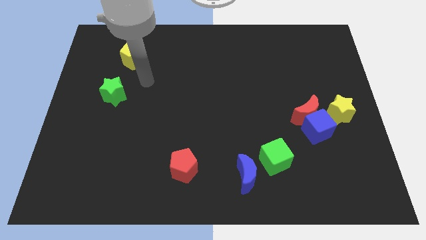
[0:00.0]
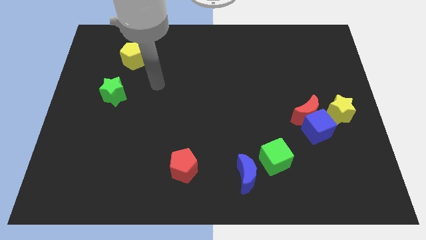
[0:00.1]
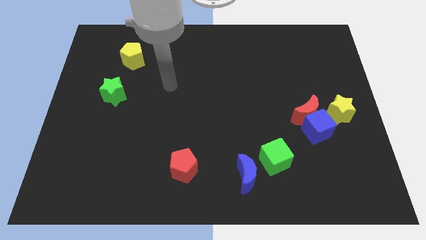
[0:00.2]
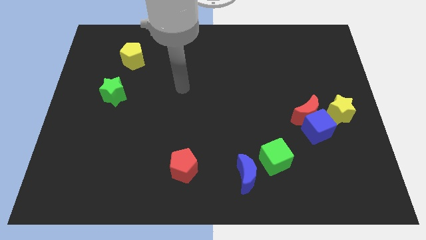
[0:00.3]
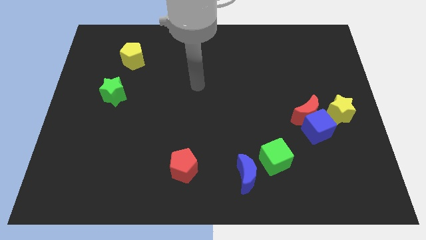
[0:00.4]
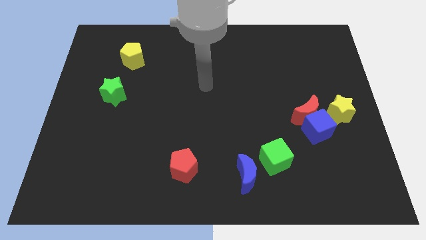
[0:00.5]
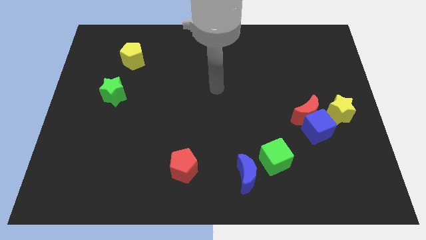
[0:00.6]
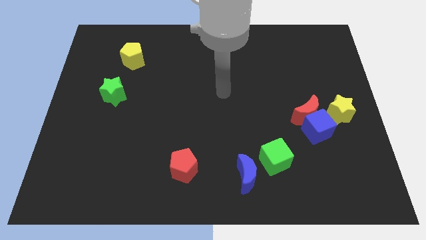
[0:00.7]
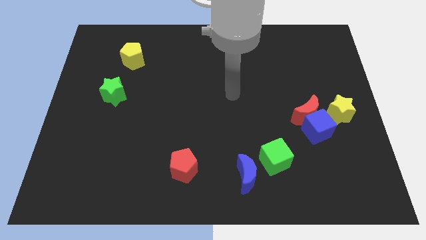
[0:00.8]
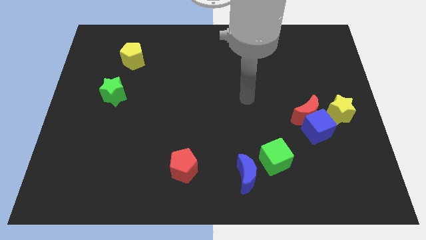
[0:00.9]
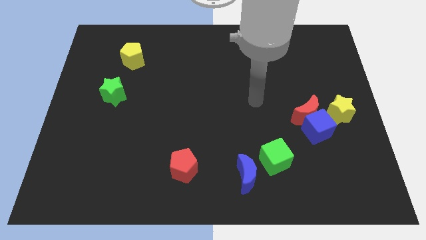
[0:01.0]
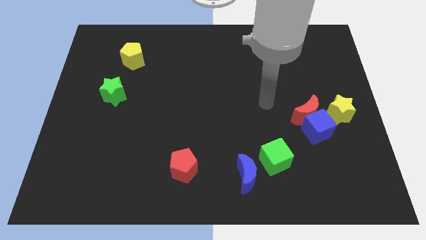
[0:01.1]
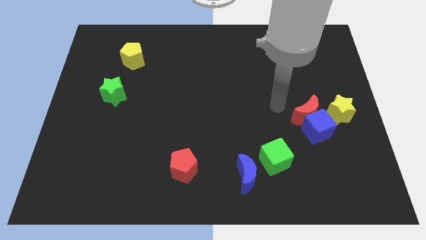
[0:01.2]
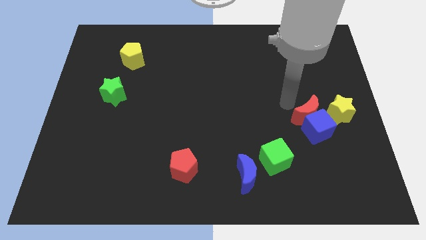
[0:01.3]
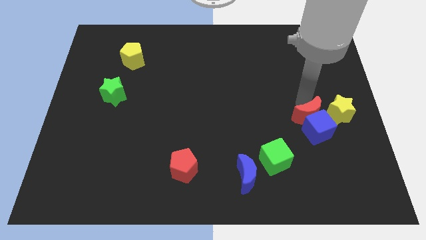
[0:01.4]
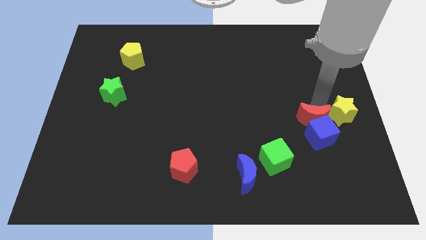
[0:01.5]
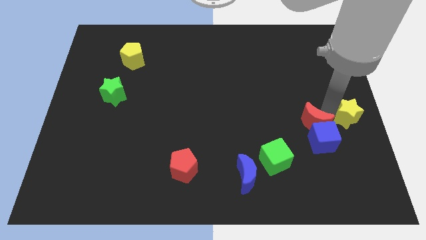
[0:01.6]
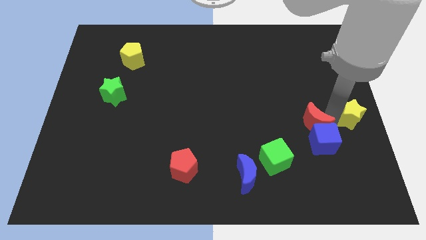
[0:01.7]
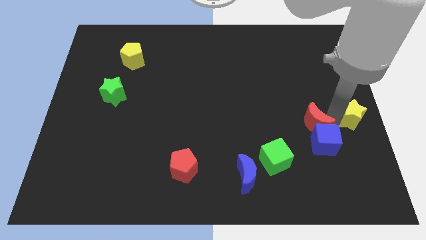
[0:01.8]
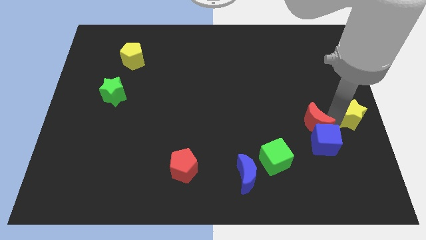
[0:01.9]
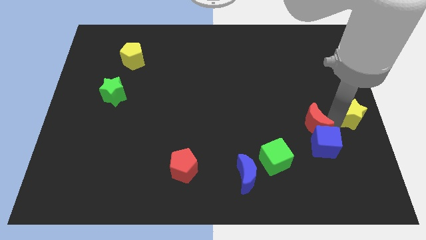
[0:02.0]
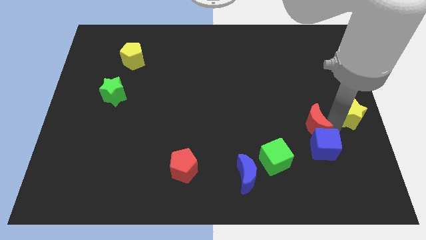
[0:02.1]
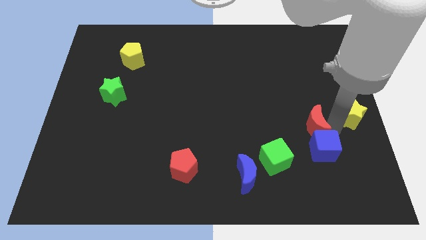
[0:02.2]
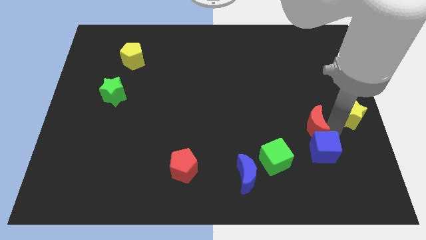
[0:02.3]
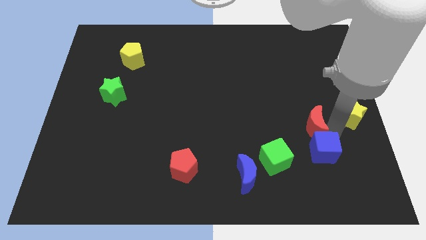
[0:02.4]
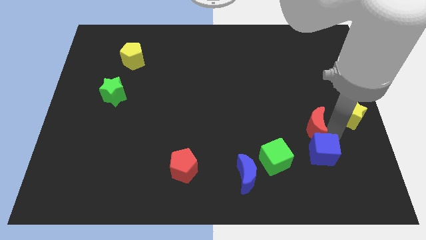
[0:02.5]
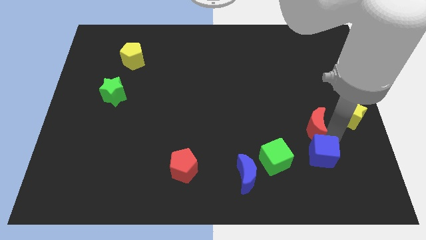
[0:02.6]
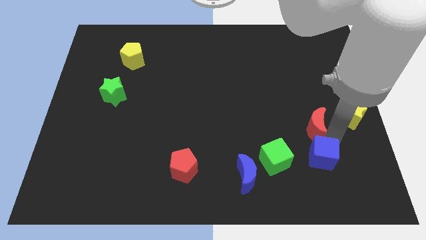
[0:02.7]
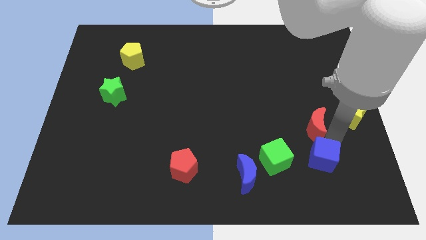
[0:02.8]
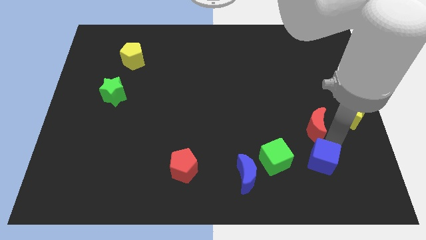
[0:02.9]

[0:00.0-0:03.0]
separate the blue cube from the red moon and yellow star

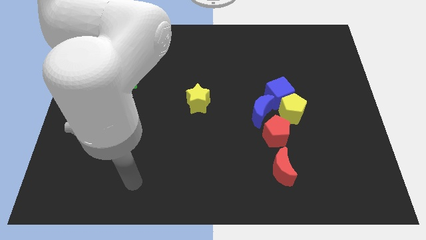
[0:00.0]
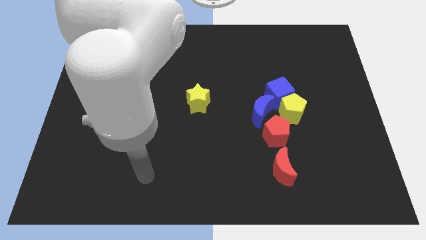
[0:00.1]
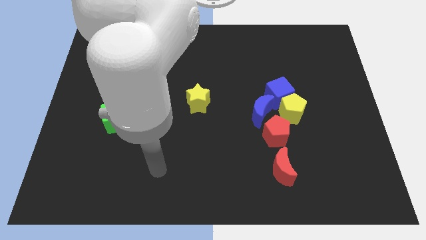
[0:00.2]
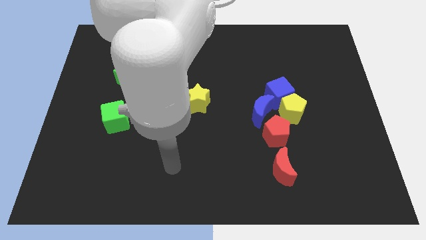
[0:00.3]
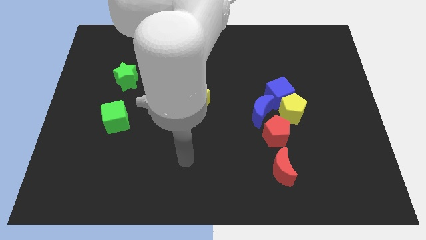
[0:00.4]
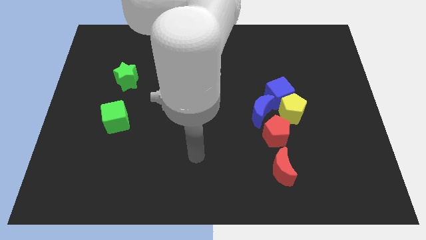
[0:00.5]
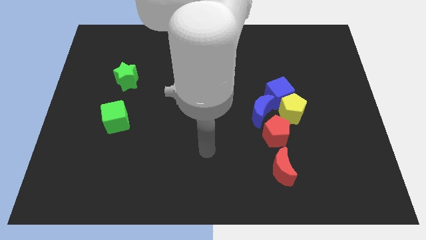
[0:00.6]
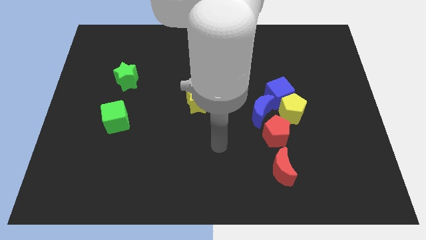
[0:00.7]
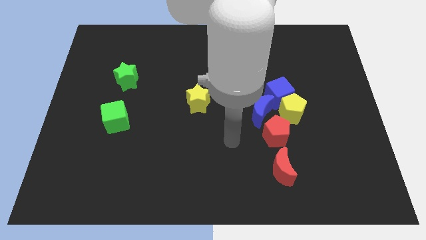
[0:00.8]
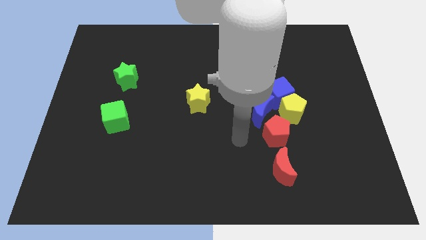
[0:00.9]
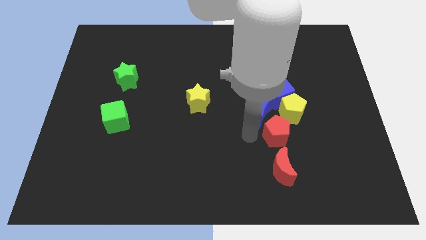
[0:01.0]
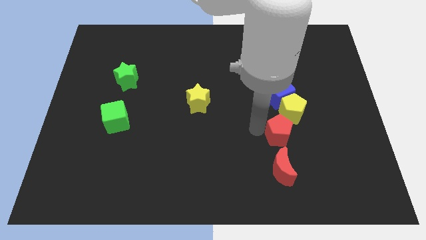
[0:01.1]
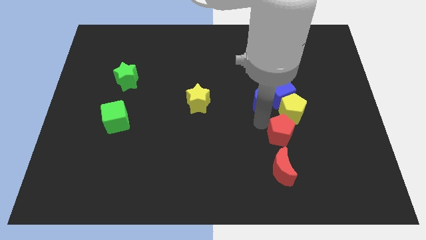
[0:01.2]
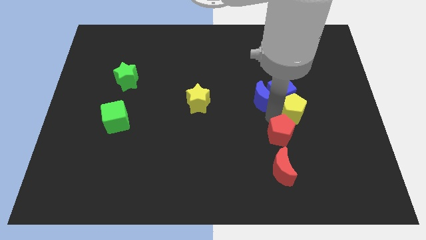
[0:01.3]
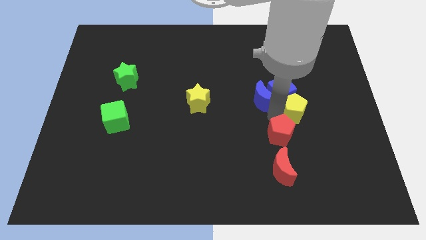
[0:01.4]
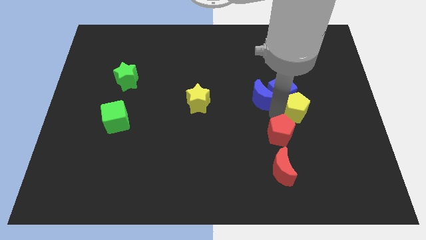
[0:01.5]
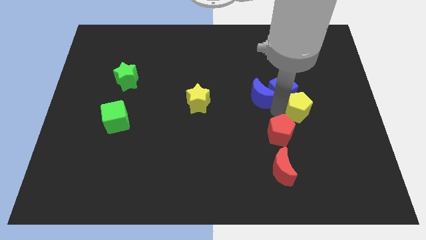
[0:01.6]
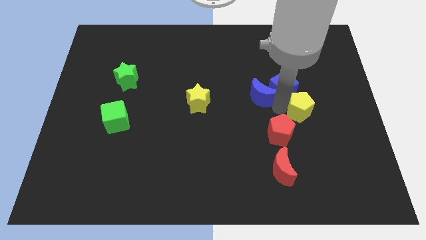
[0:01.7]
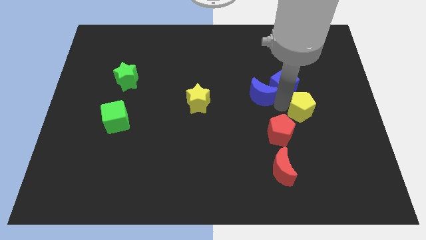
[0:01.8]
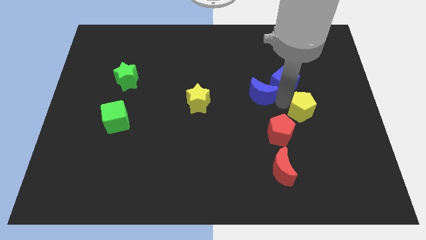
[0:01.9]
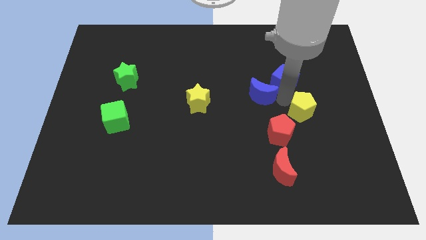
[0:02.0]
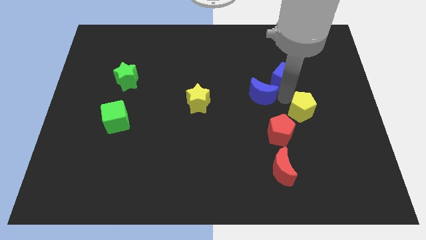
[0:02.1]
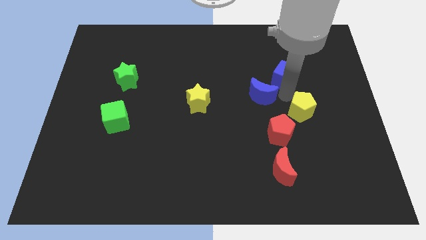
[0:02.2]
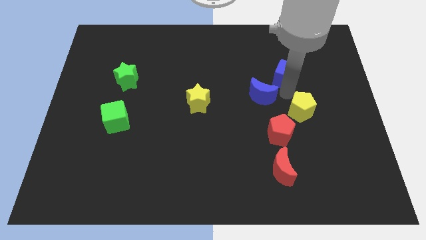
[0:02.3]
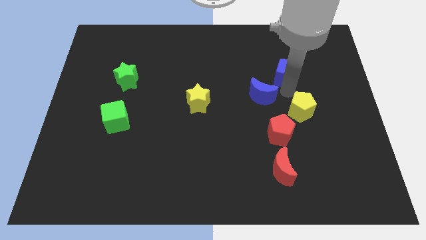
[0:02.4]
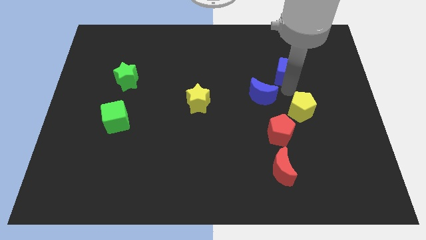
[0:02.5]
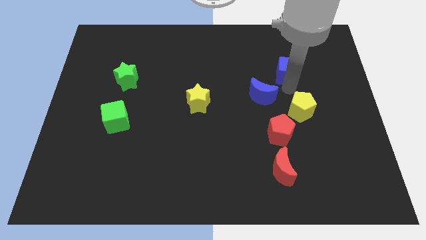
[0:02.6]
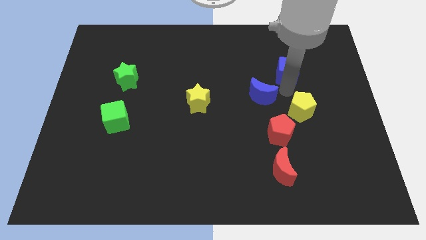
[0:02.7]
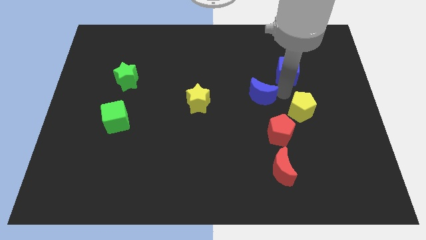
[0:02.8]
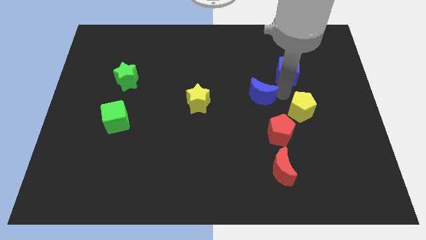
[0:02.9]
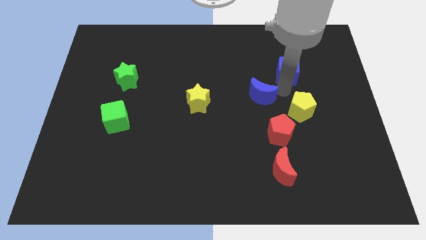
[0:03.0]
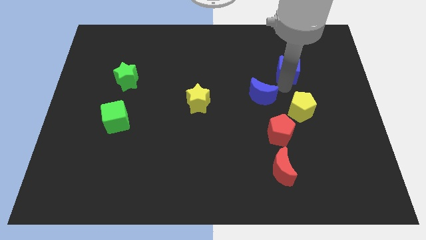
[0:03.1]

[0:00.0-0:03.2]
pull the blue cube apart from the yellow pentagon and blue moon

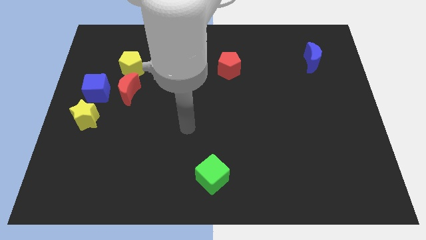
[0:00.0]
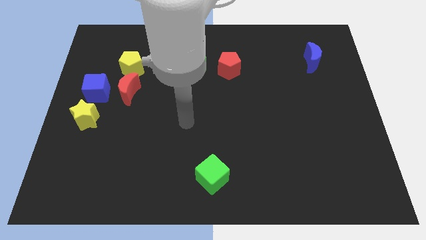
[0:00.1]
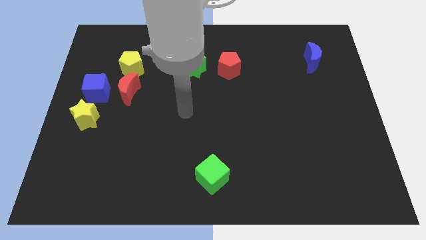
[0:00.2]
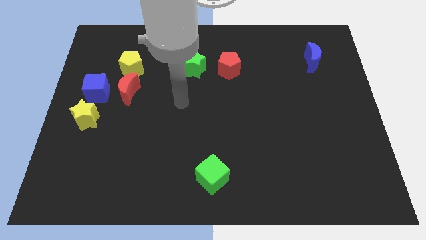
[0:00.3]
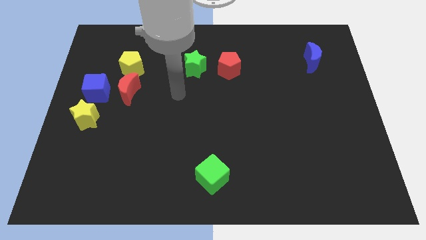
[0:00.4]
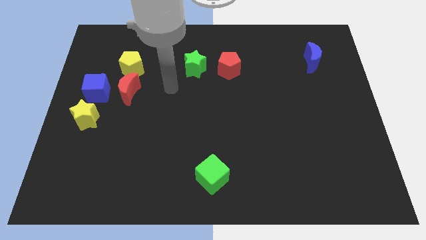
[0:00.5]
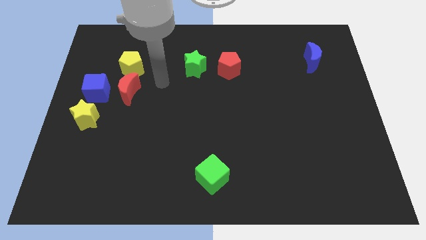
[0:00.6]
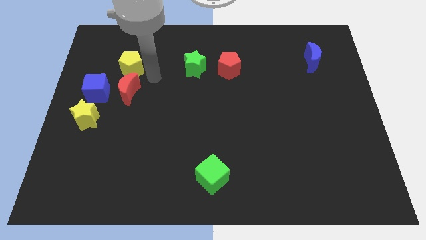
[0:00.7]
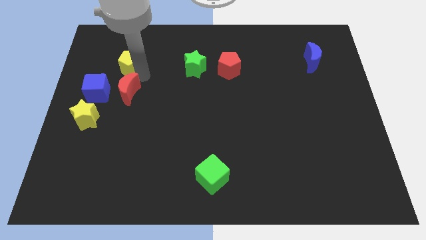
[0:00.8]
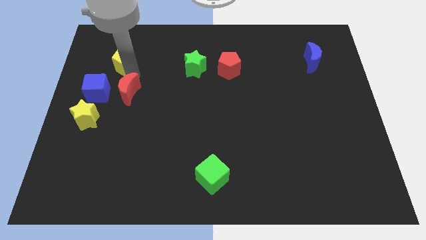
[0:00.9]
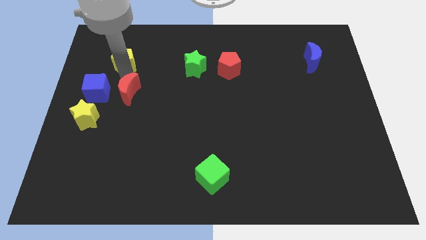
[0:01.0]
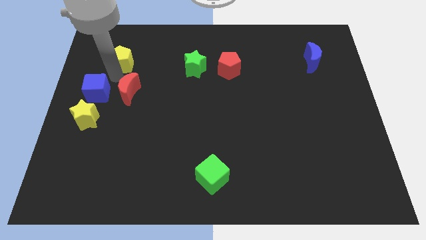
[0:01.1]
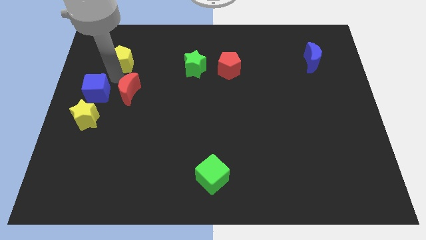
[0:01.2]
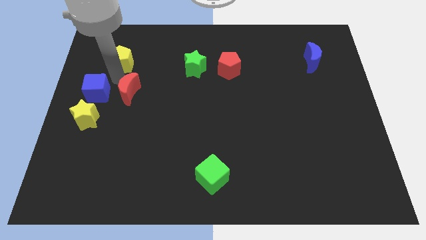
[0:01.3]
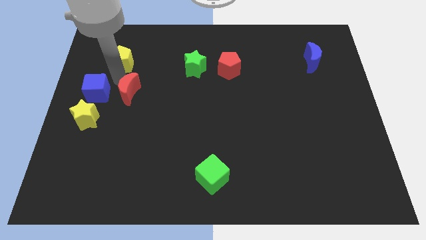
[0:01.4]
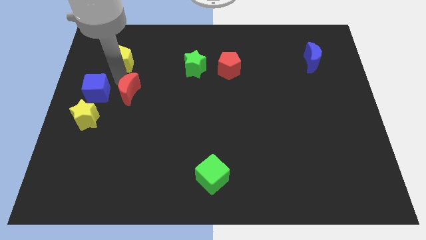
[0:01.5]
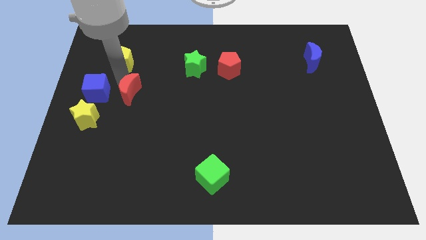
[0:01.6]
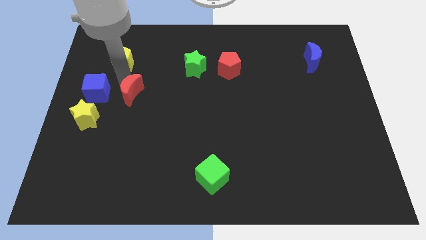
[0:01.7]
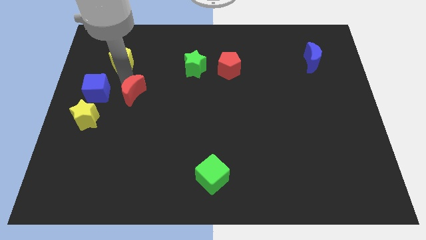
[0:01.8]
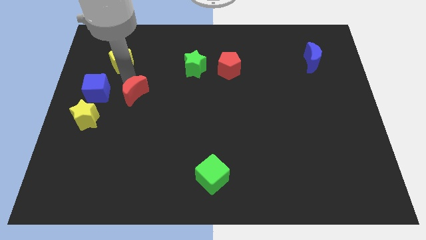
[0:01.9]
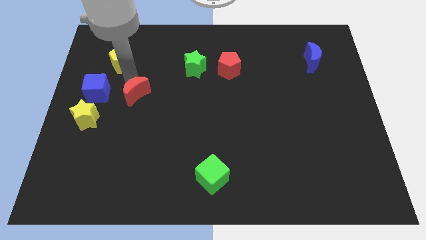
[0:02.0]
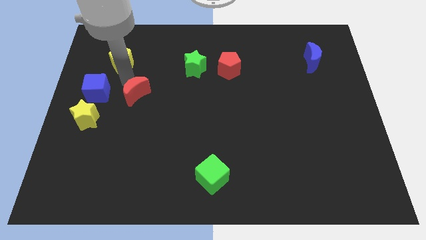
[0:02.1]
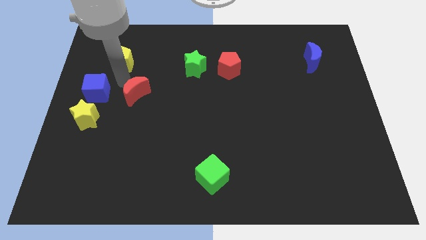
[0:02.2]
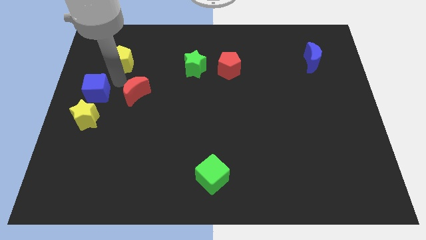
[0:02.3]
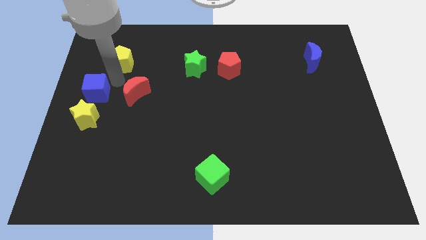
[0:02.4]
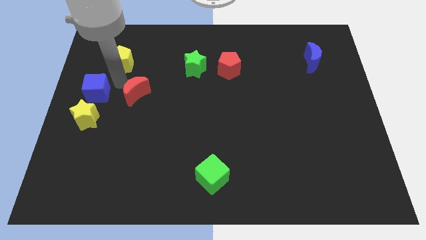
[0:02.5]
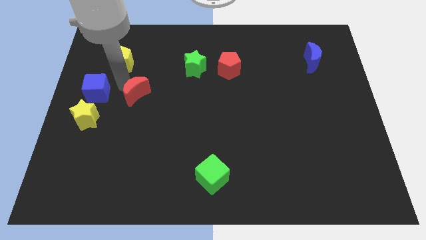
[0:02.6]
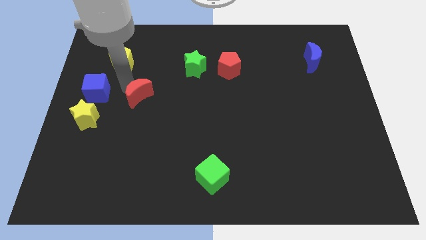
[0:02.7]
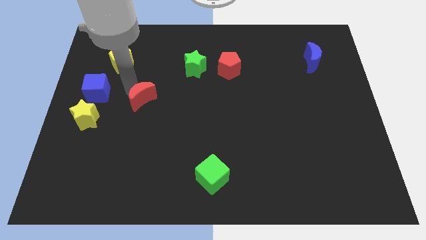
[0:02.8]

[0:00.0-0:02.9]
pull the red moon apart from the blue cube and yellow pentagon

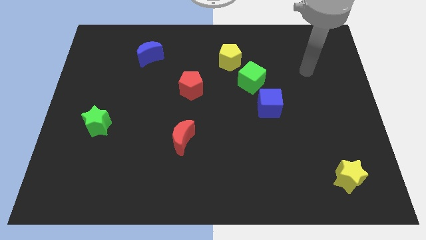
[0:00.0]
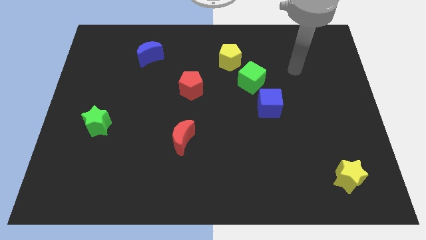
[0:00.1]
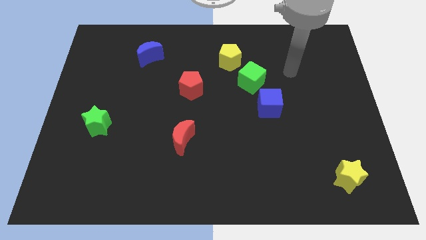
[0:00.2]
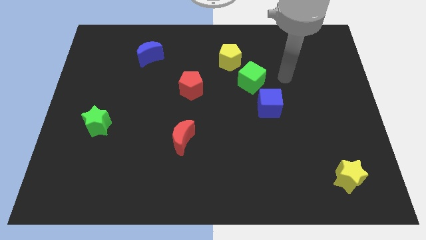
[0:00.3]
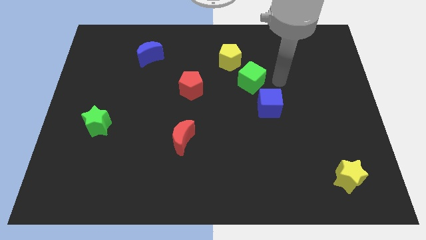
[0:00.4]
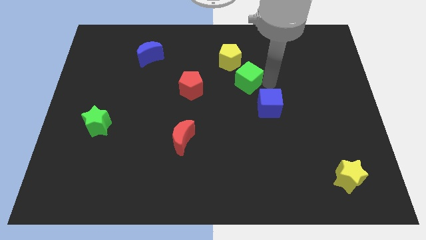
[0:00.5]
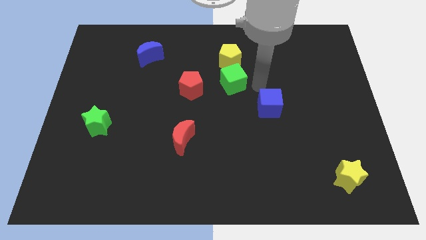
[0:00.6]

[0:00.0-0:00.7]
separate the blue cube from the green cube
